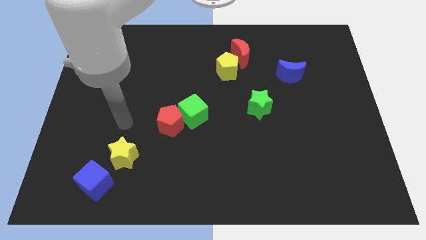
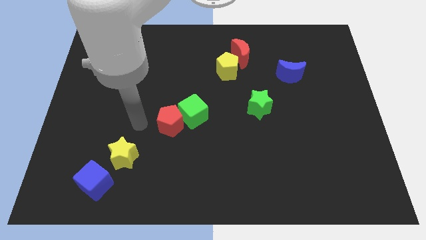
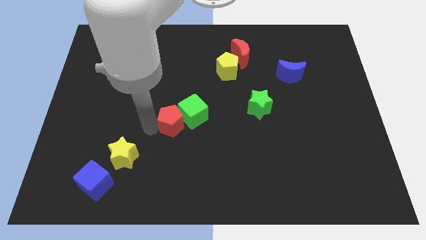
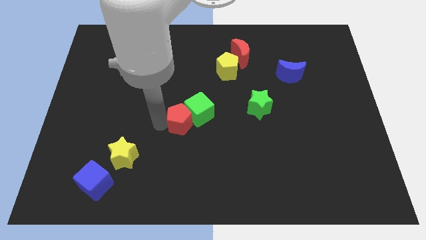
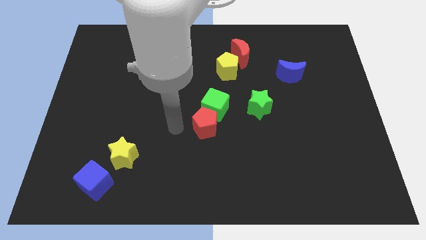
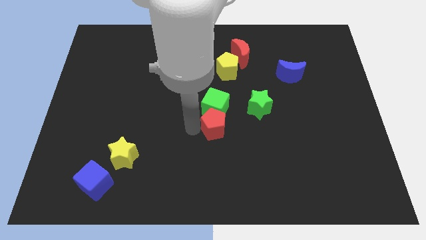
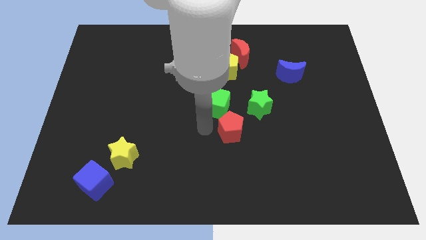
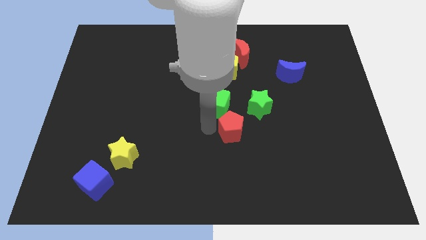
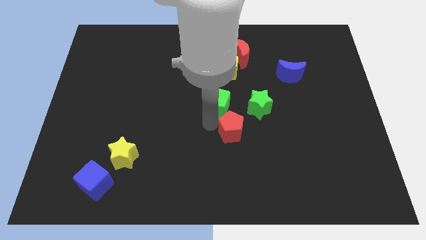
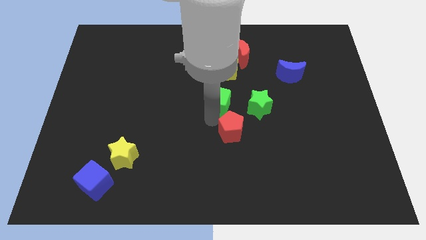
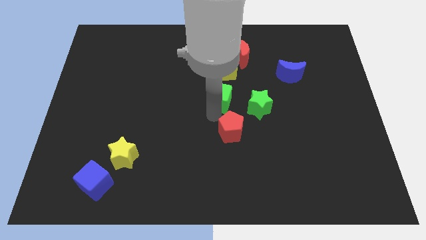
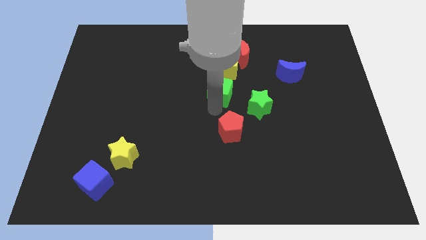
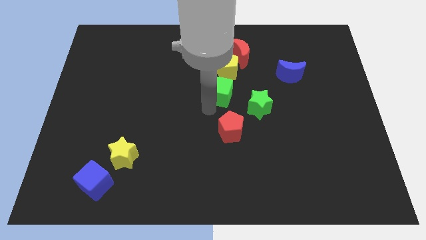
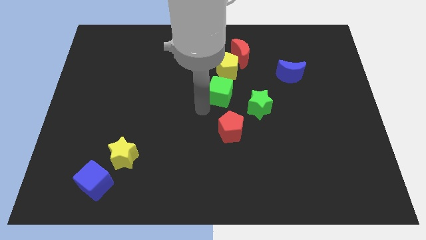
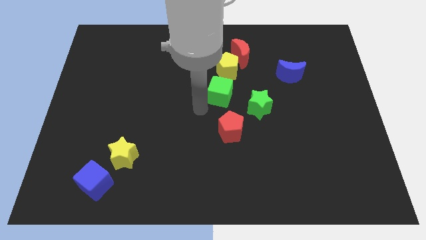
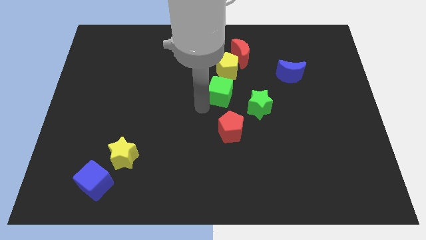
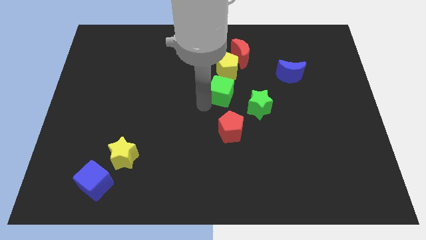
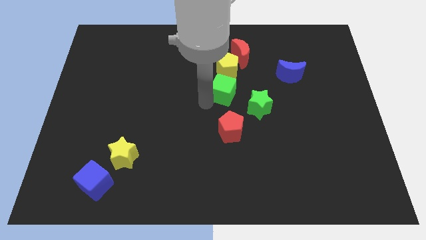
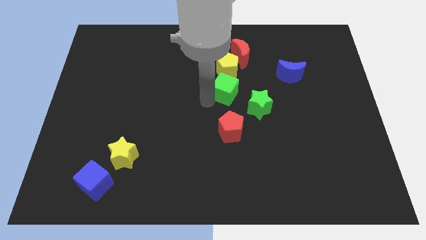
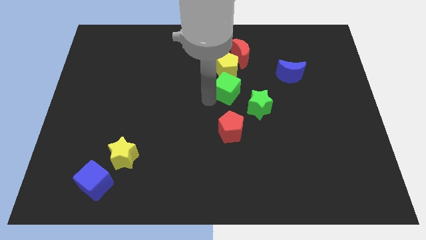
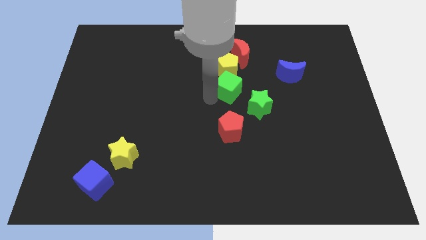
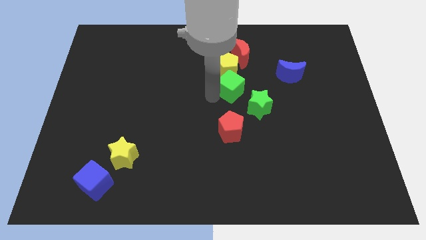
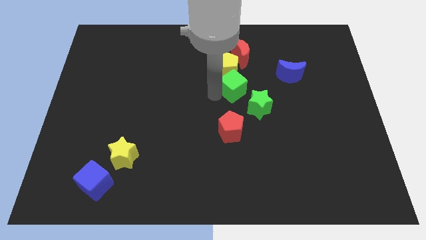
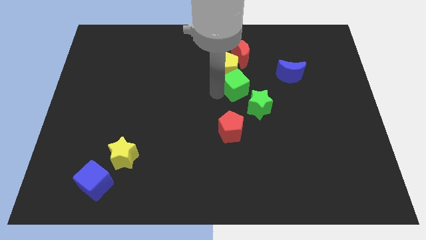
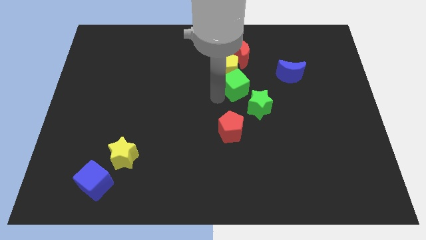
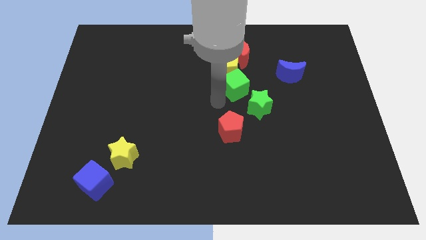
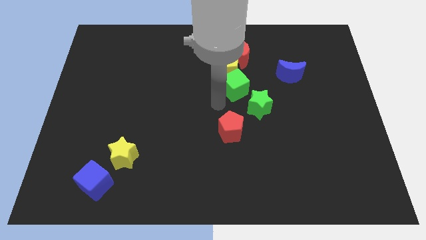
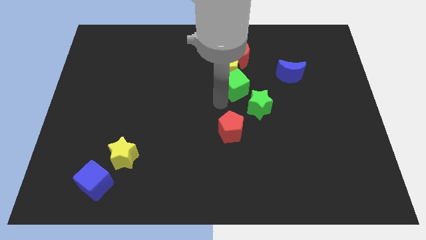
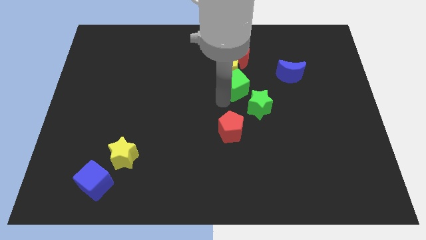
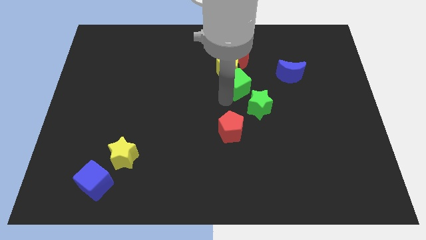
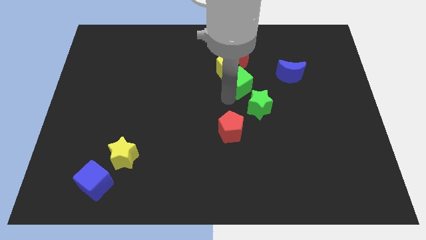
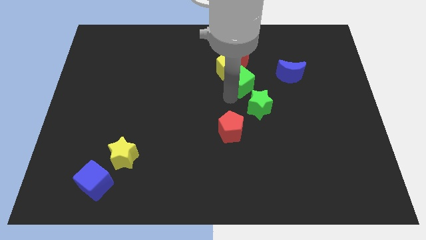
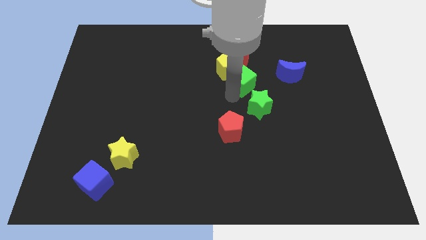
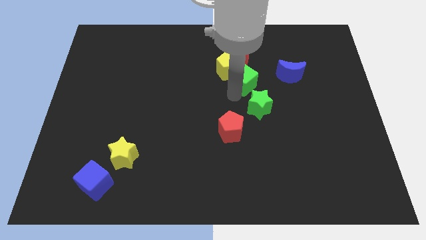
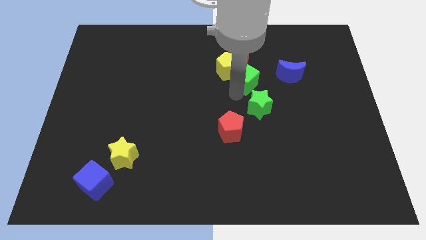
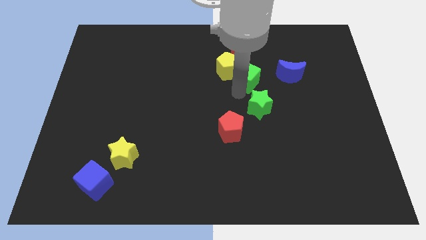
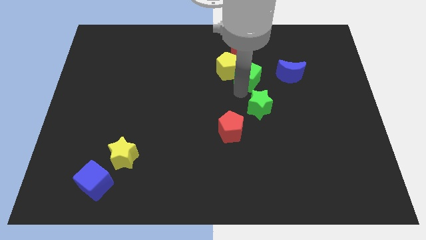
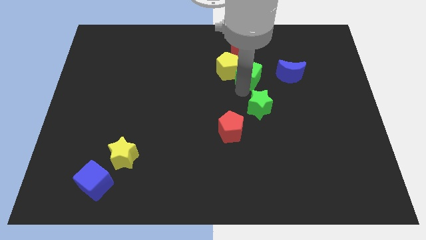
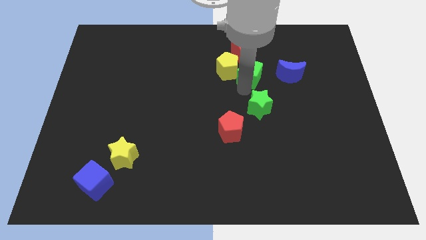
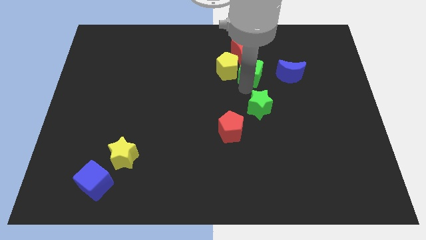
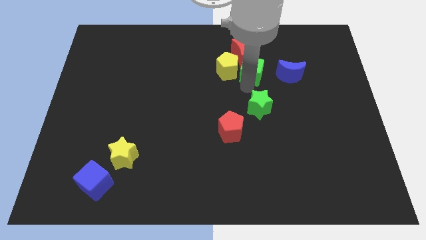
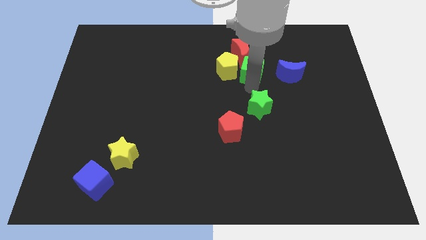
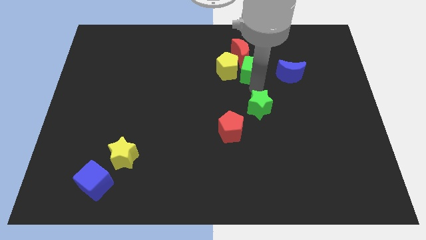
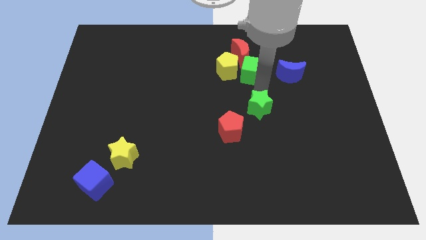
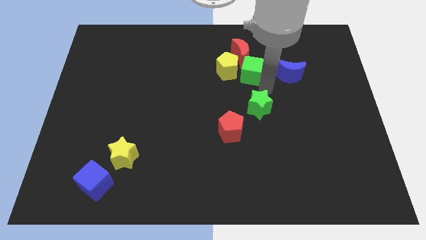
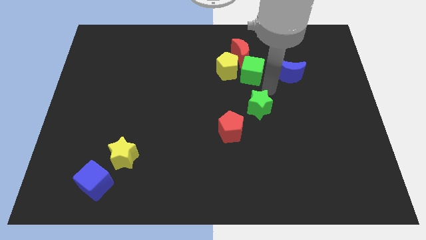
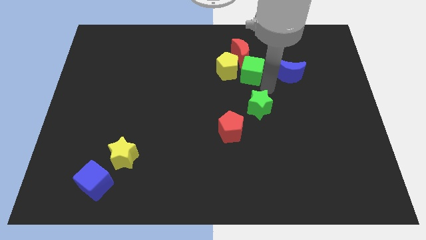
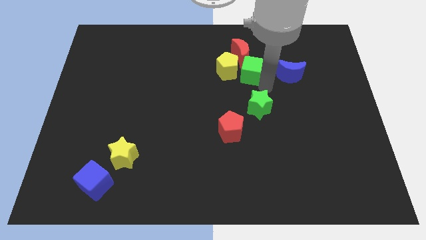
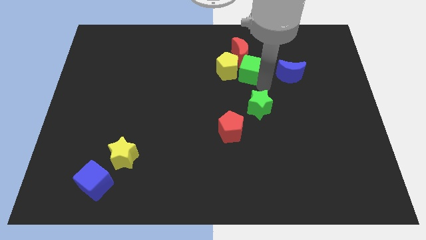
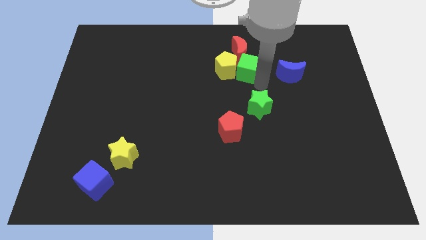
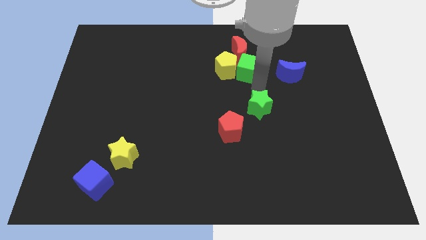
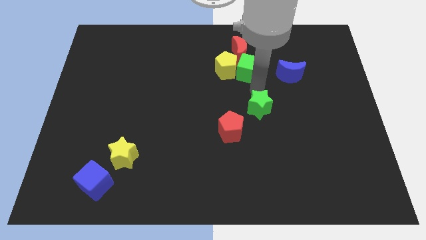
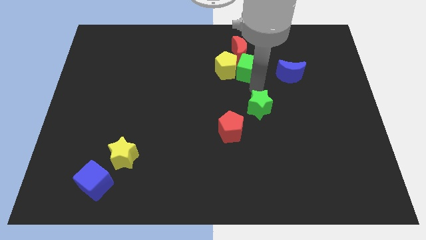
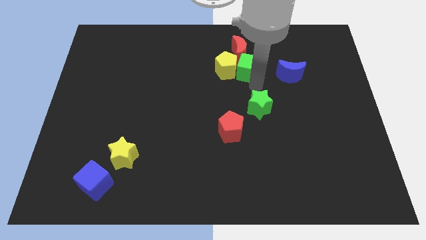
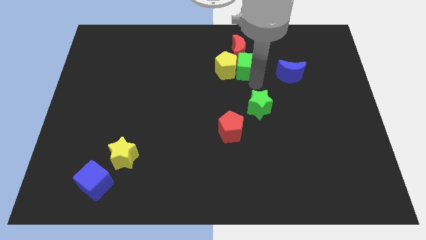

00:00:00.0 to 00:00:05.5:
move the green cube to the red moon

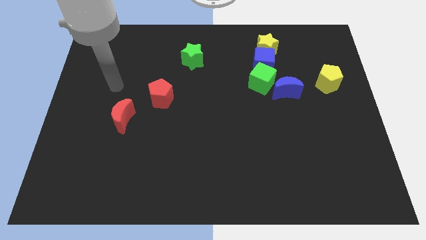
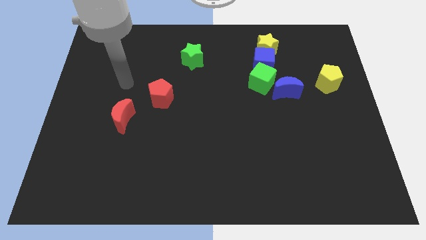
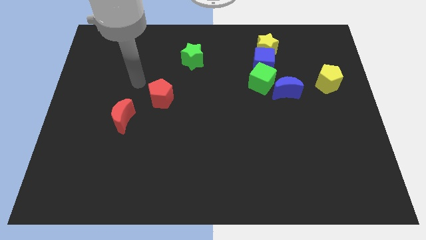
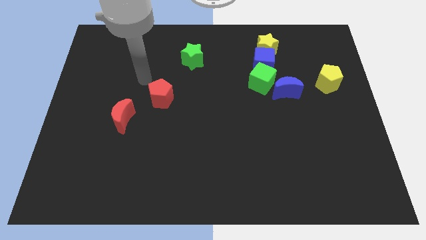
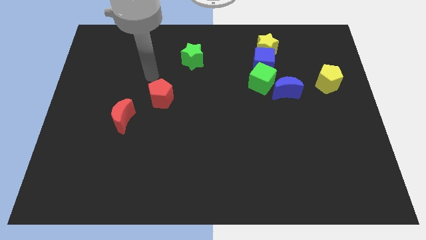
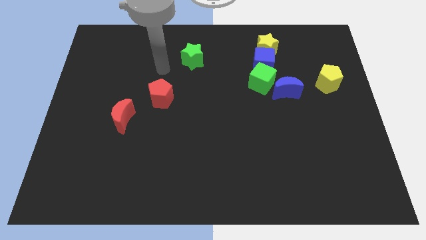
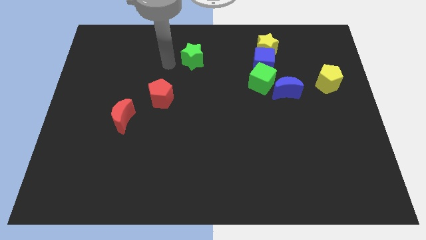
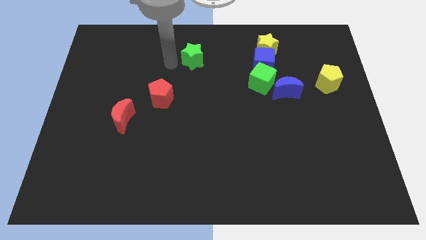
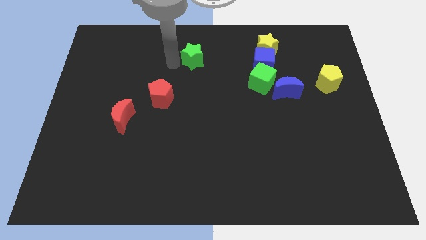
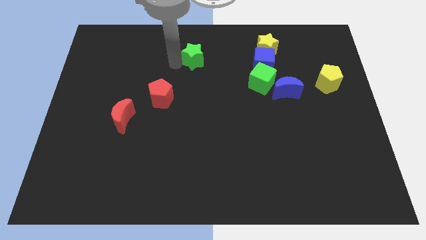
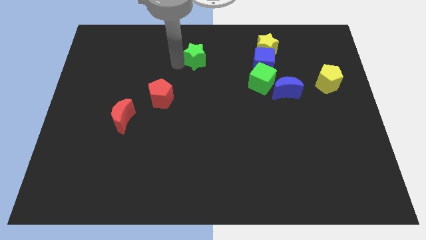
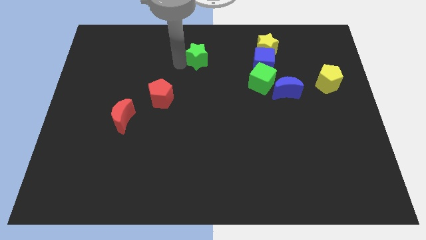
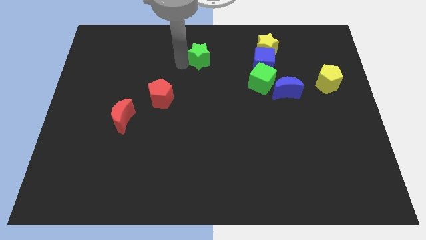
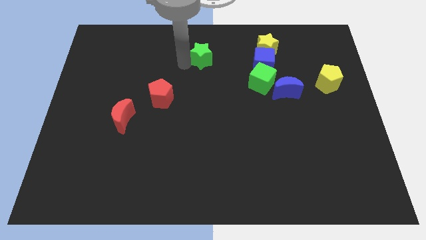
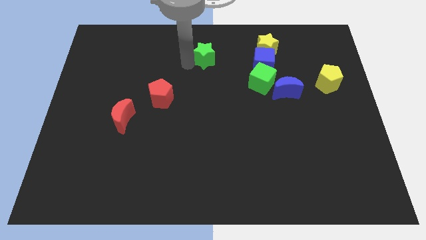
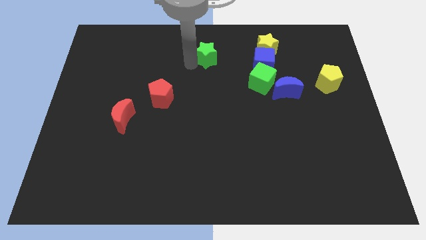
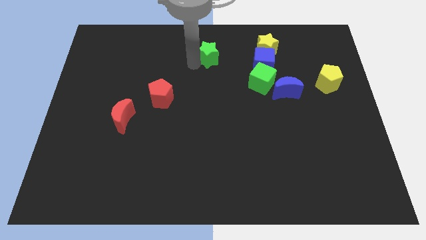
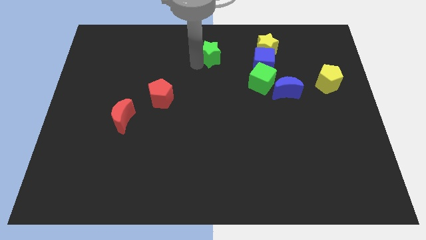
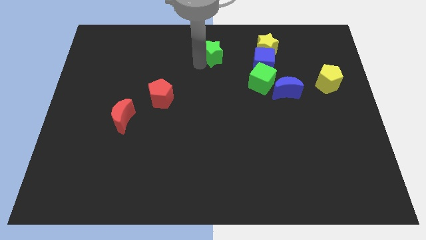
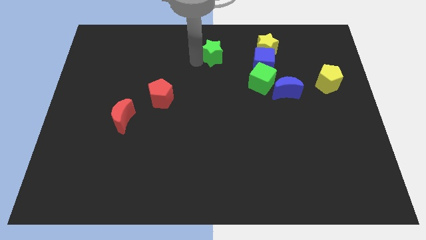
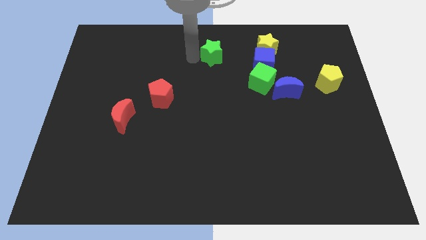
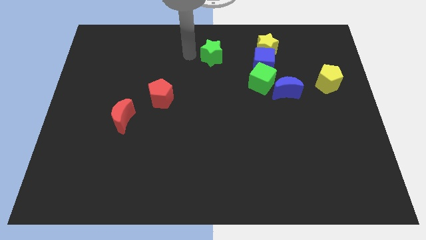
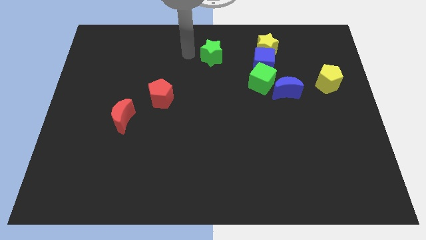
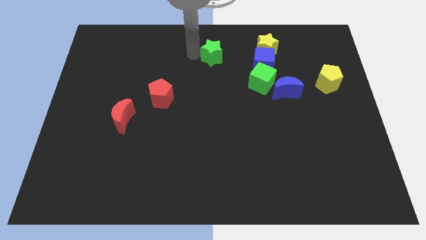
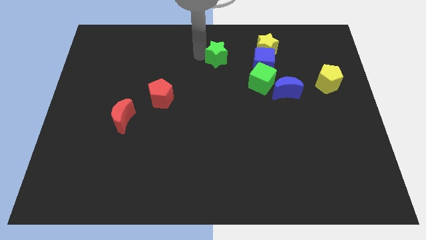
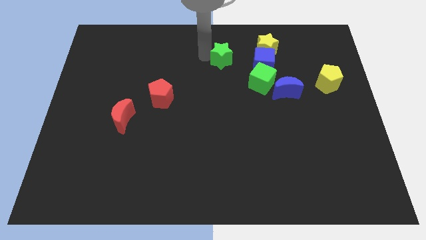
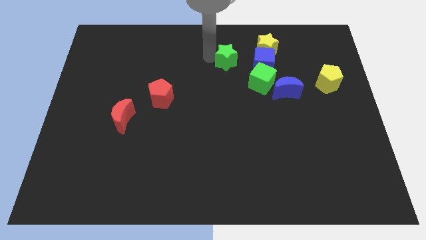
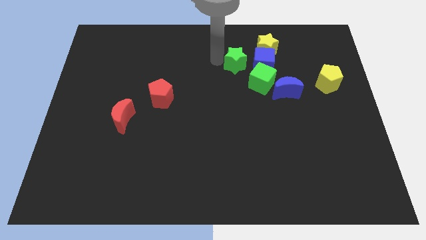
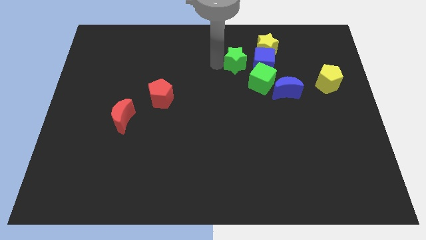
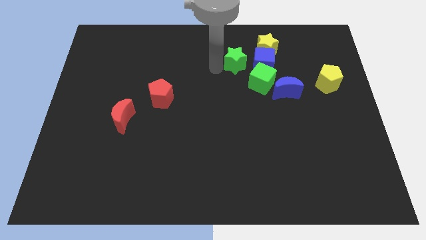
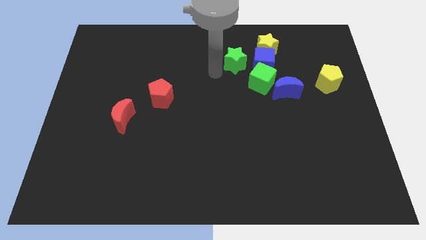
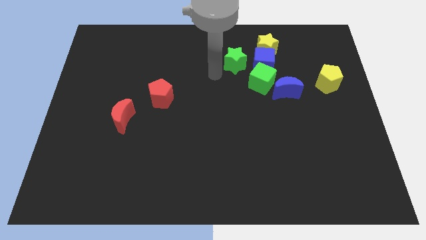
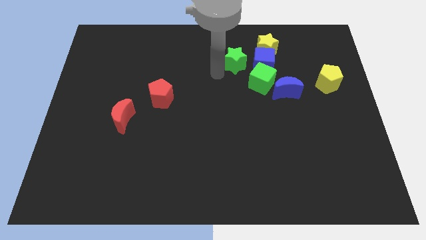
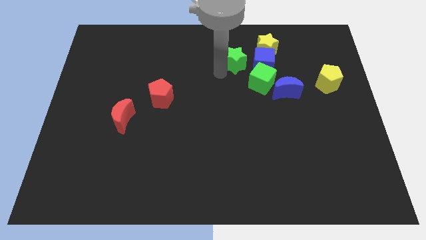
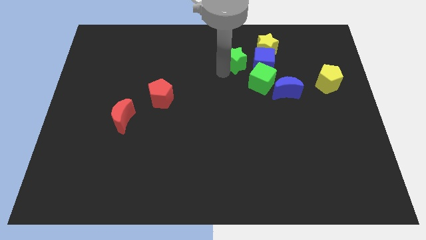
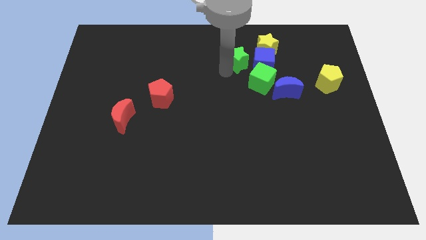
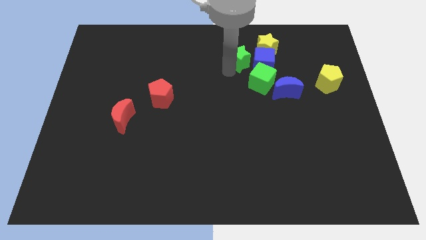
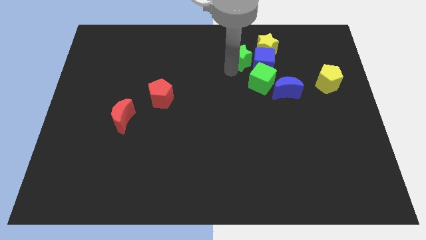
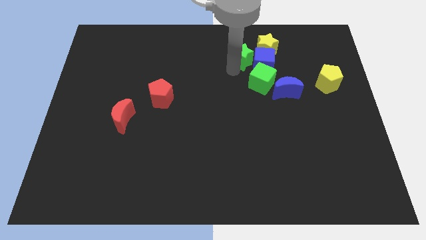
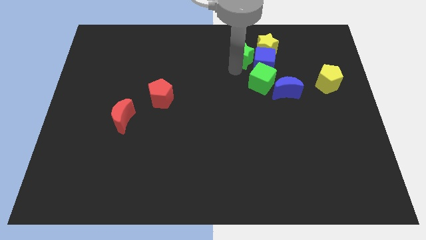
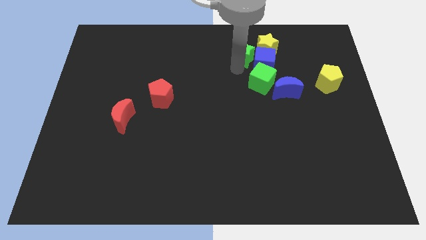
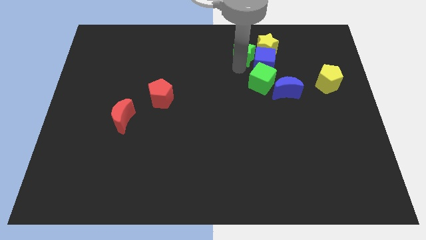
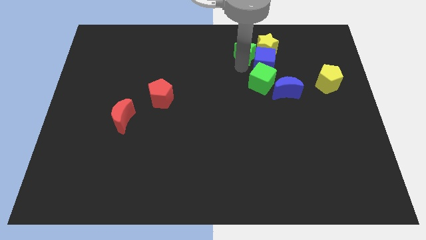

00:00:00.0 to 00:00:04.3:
slide the green star next to the yellow star
